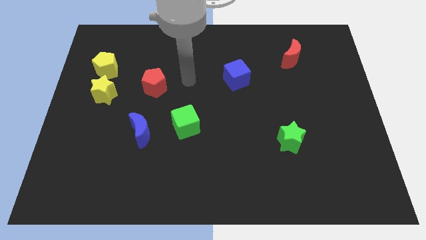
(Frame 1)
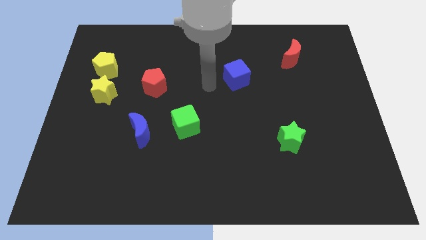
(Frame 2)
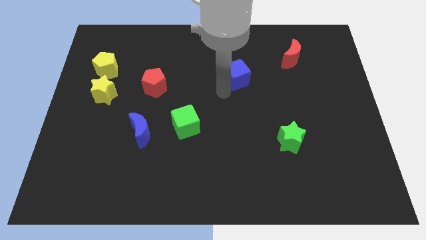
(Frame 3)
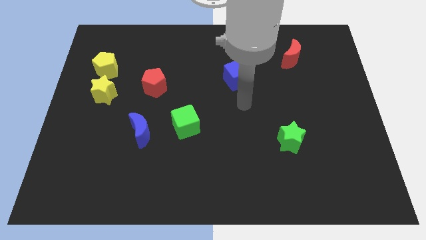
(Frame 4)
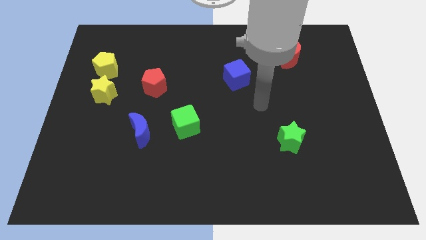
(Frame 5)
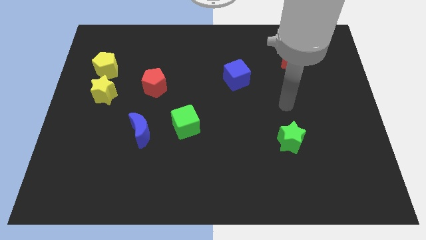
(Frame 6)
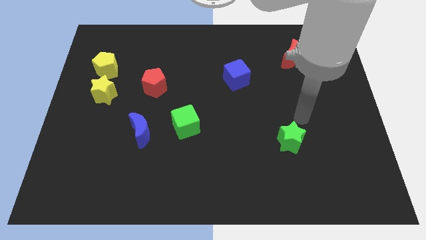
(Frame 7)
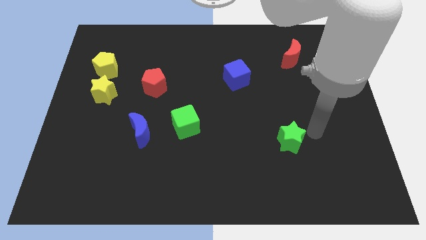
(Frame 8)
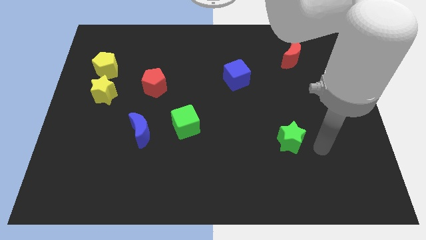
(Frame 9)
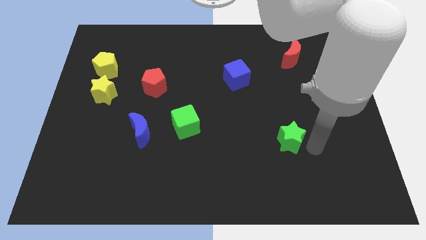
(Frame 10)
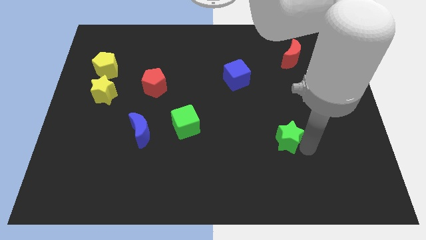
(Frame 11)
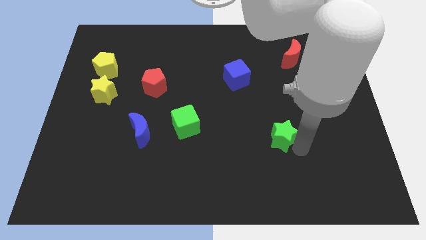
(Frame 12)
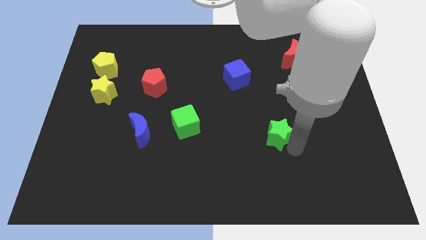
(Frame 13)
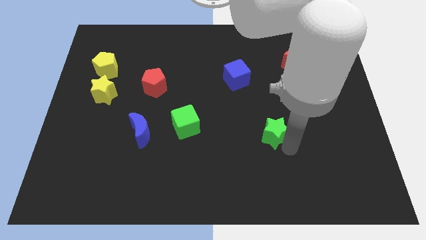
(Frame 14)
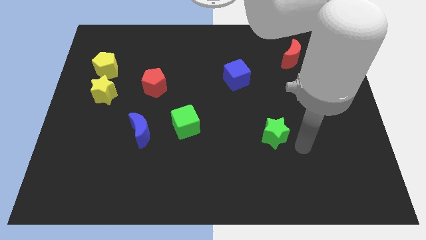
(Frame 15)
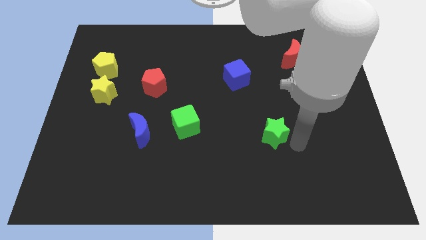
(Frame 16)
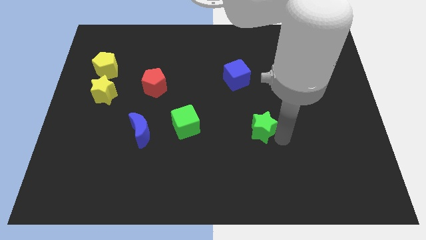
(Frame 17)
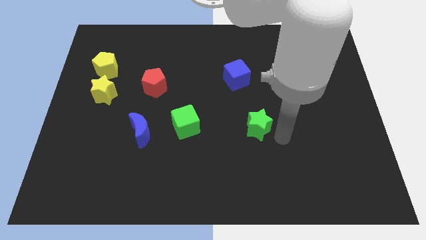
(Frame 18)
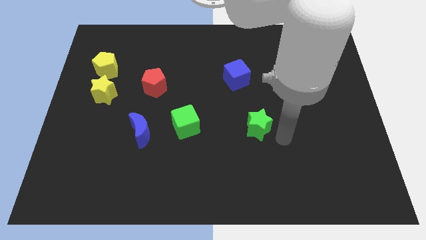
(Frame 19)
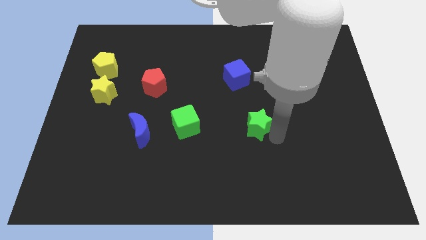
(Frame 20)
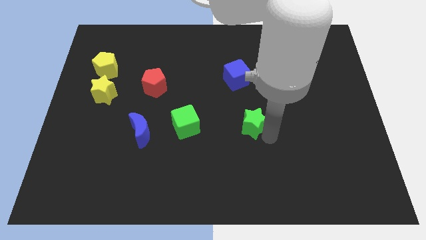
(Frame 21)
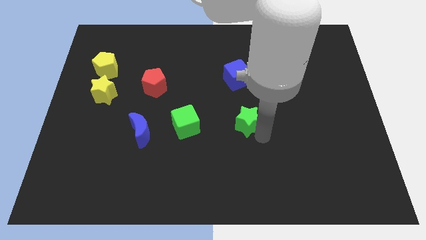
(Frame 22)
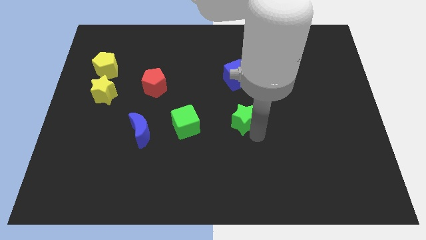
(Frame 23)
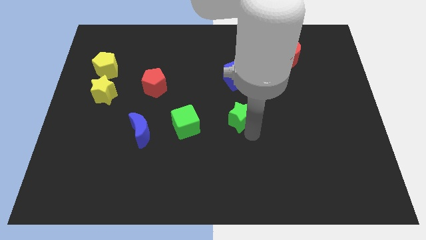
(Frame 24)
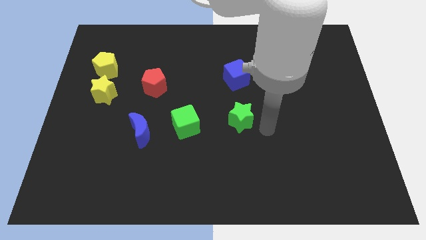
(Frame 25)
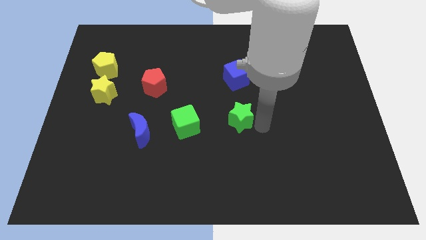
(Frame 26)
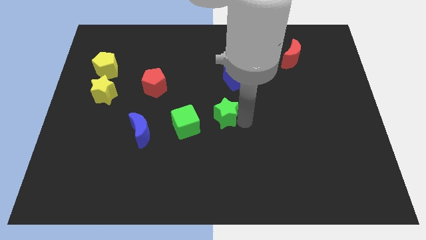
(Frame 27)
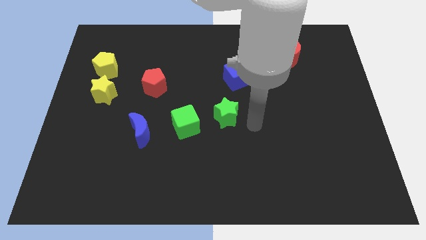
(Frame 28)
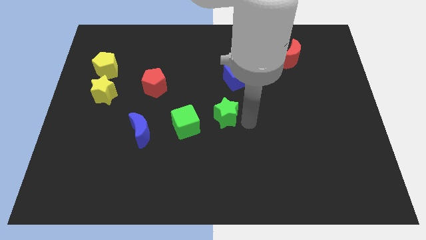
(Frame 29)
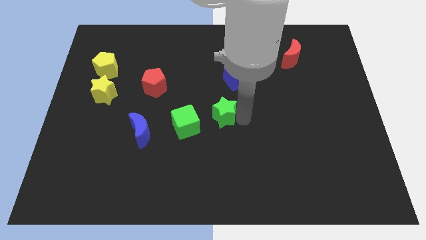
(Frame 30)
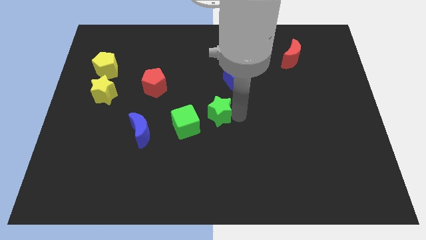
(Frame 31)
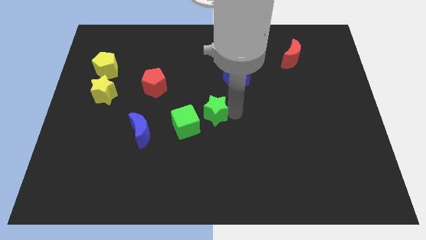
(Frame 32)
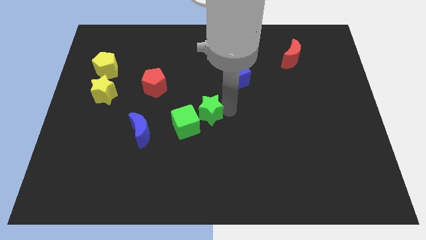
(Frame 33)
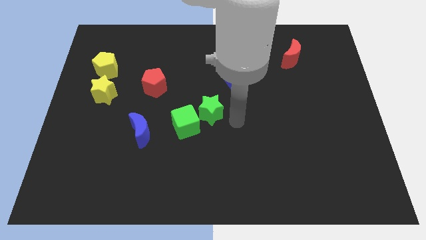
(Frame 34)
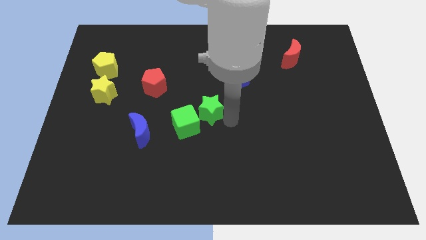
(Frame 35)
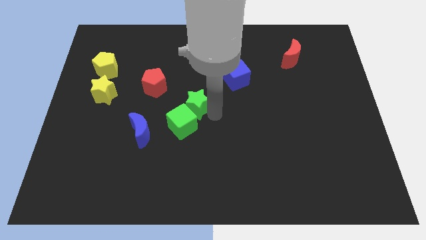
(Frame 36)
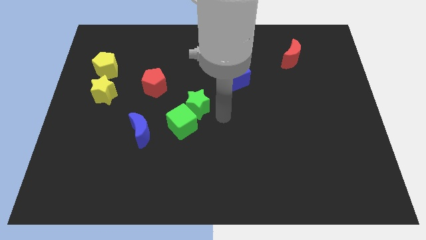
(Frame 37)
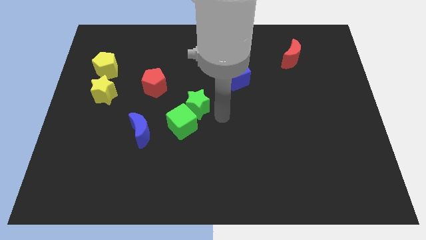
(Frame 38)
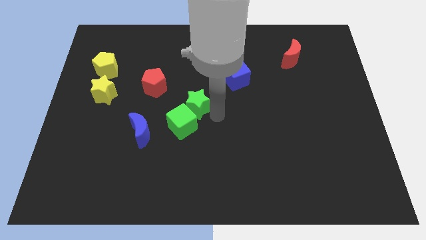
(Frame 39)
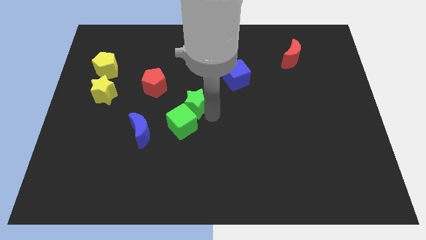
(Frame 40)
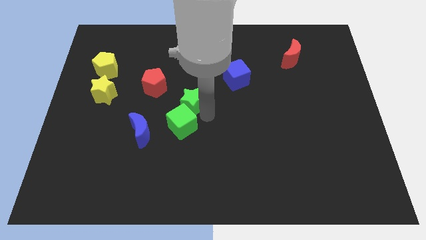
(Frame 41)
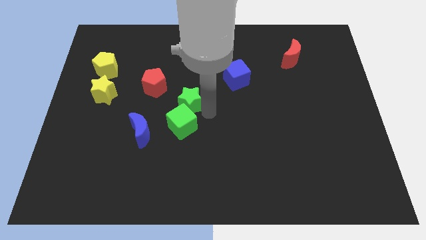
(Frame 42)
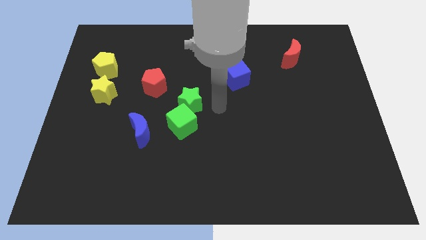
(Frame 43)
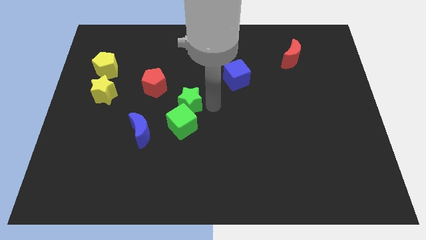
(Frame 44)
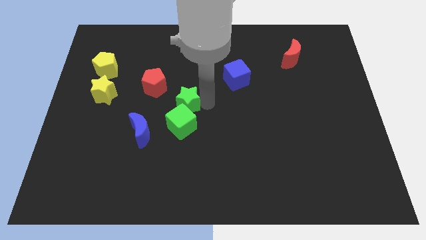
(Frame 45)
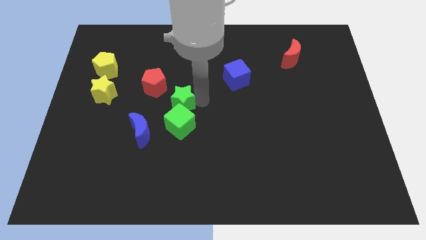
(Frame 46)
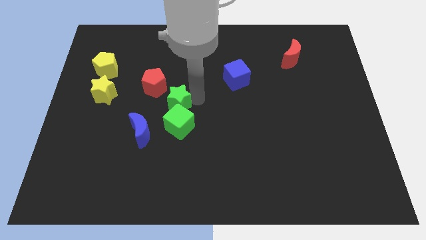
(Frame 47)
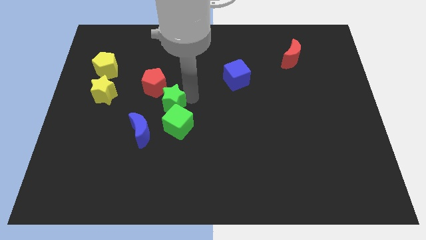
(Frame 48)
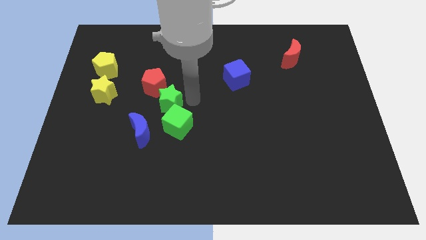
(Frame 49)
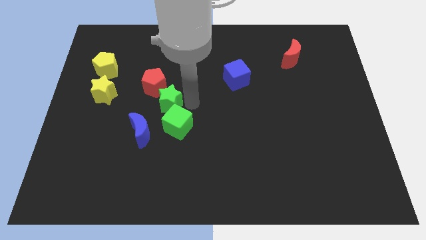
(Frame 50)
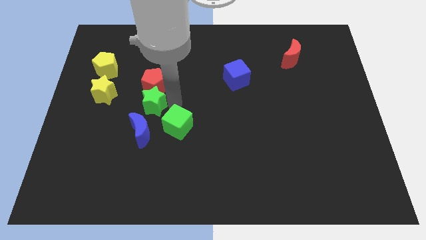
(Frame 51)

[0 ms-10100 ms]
push the green star to the bottom left of the red pentagon

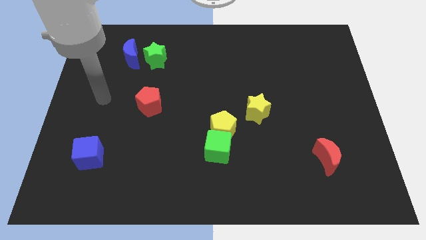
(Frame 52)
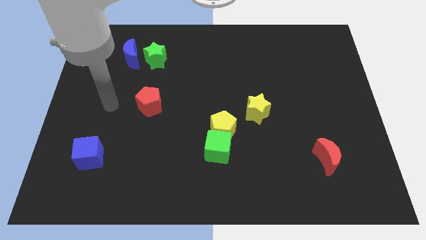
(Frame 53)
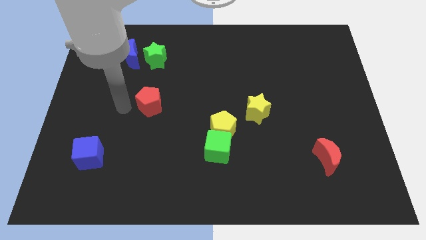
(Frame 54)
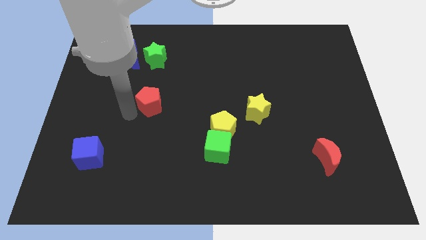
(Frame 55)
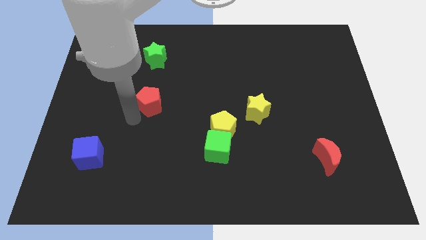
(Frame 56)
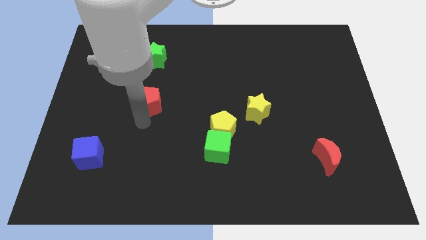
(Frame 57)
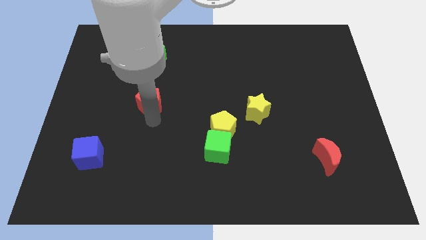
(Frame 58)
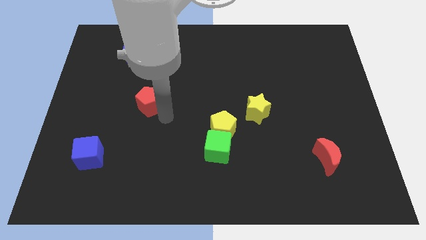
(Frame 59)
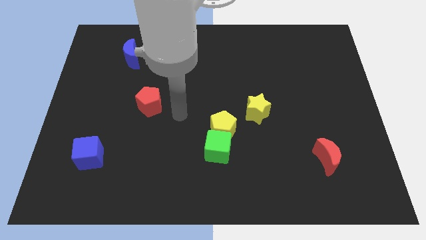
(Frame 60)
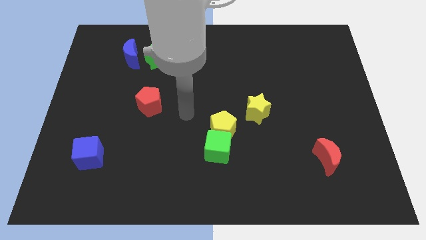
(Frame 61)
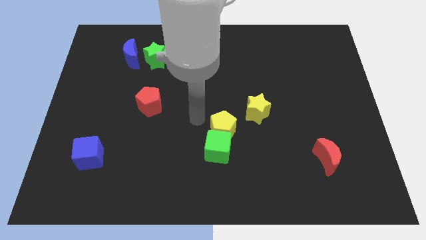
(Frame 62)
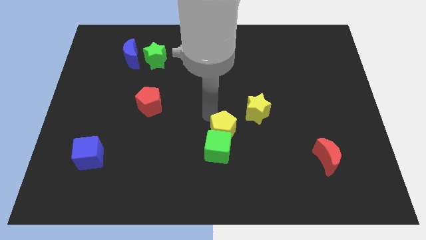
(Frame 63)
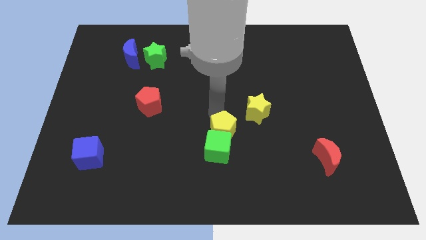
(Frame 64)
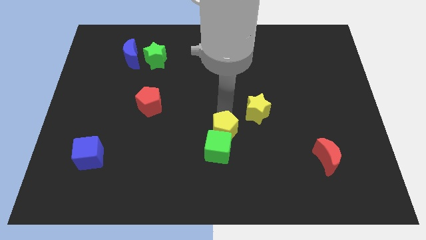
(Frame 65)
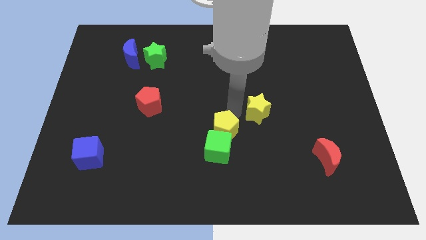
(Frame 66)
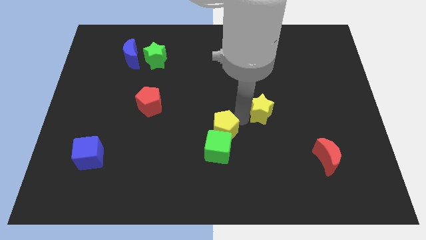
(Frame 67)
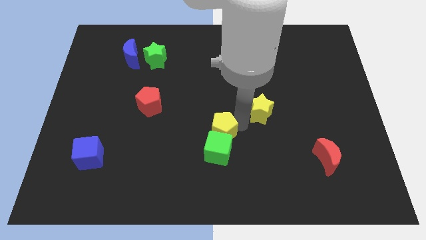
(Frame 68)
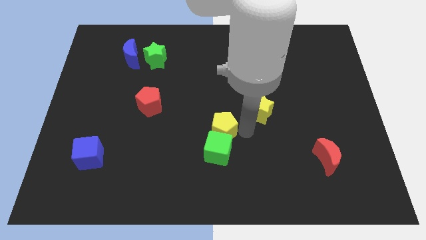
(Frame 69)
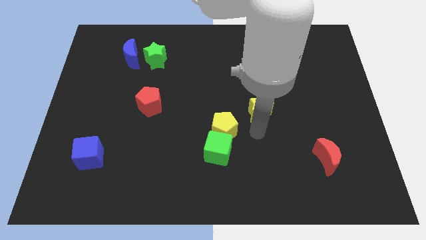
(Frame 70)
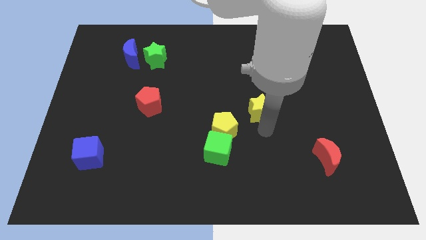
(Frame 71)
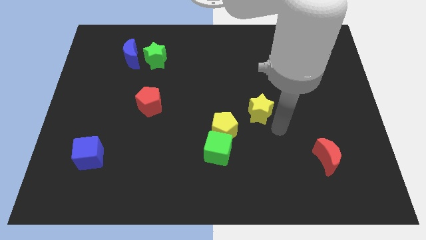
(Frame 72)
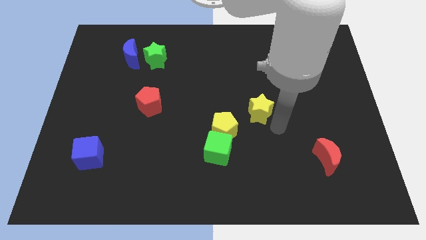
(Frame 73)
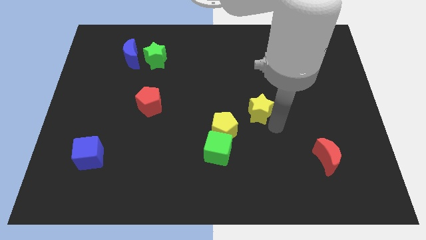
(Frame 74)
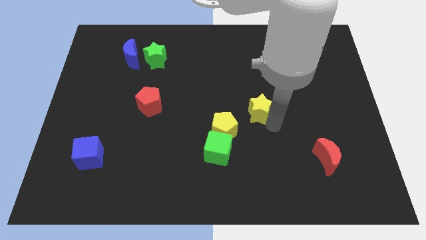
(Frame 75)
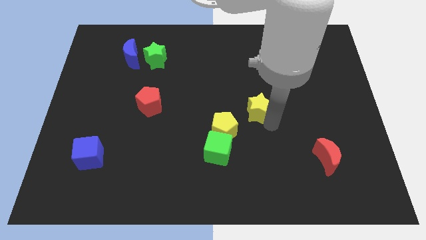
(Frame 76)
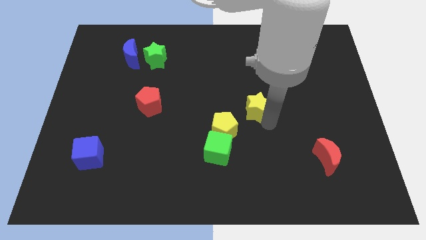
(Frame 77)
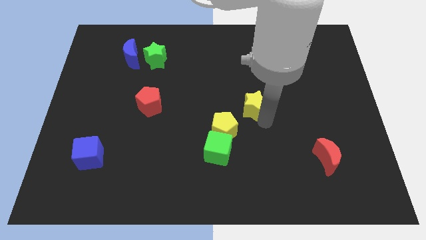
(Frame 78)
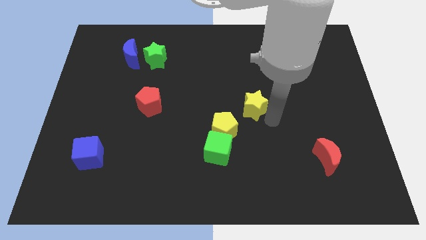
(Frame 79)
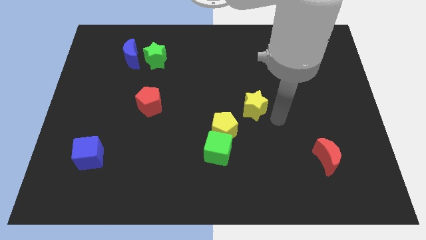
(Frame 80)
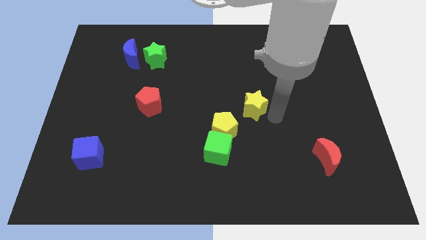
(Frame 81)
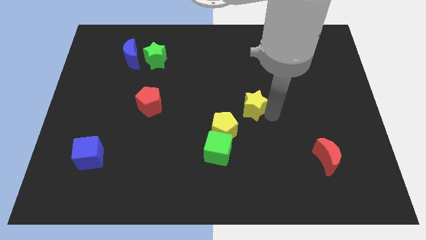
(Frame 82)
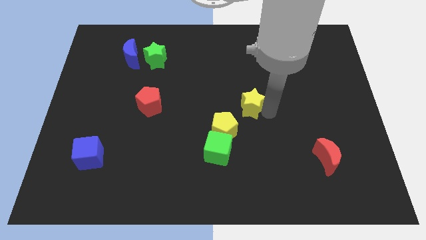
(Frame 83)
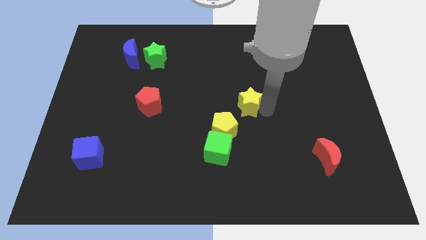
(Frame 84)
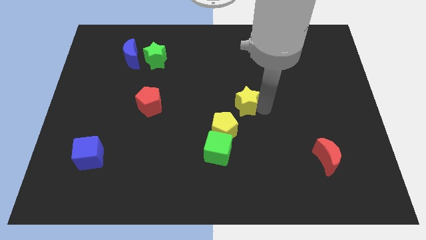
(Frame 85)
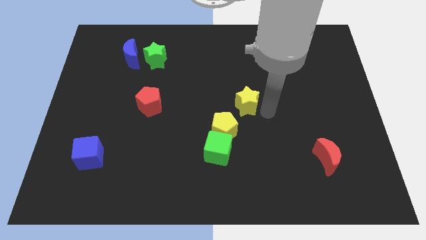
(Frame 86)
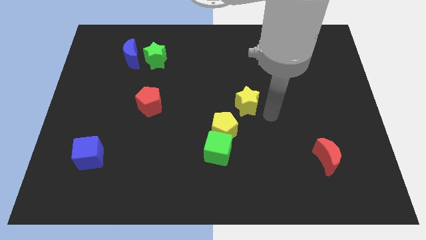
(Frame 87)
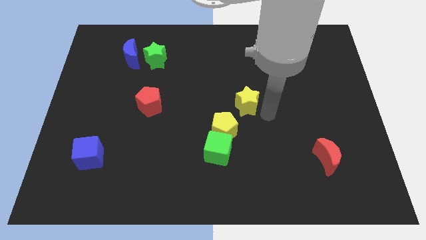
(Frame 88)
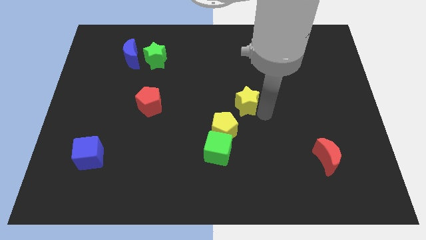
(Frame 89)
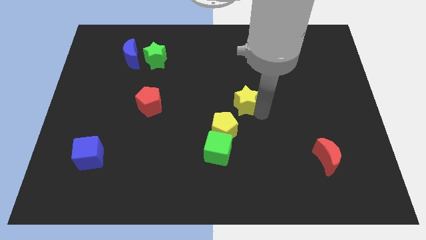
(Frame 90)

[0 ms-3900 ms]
push the yellow star to the top side of the yellow pentagon
